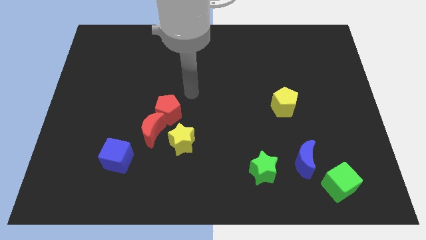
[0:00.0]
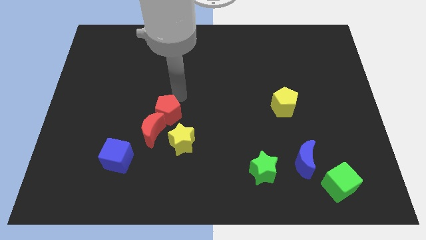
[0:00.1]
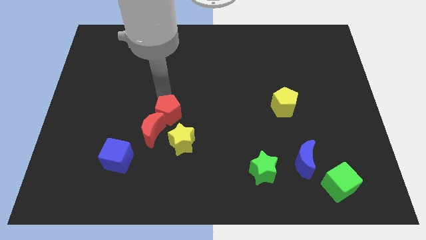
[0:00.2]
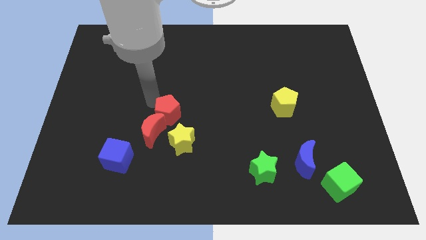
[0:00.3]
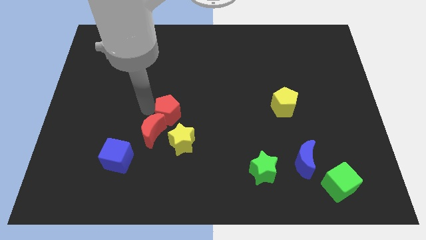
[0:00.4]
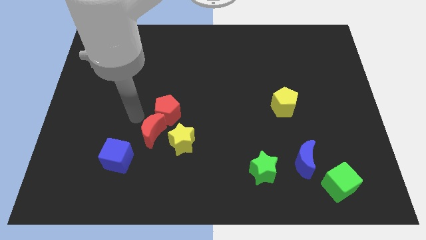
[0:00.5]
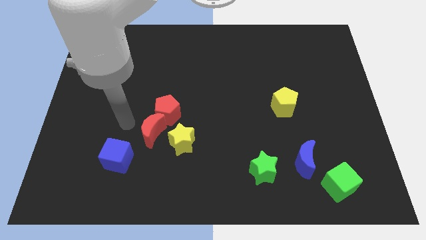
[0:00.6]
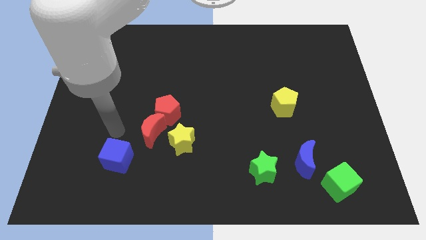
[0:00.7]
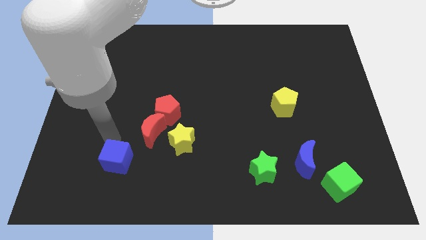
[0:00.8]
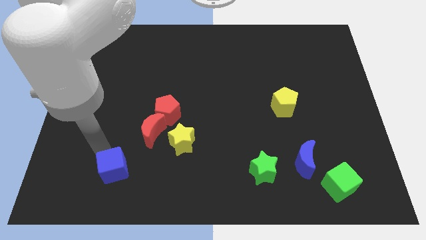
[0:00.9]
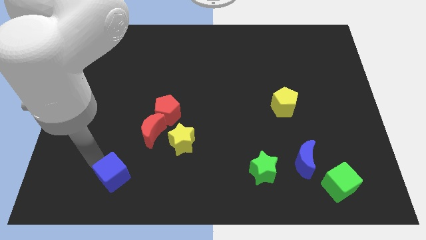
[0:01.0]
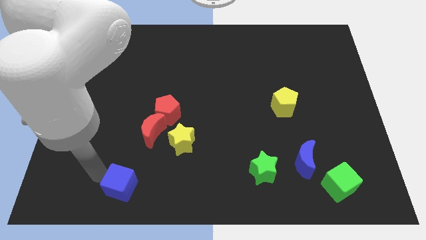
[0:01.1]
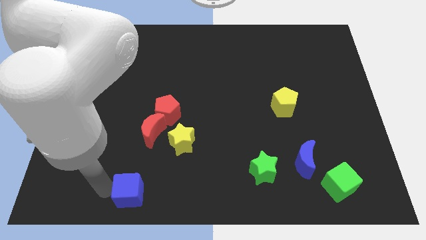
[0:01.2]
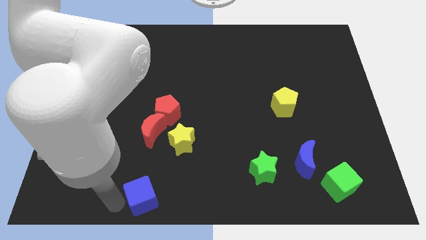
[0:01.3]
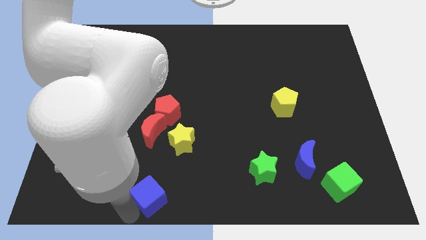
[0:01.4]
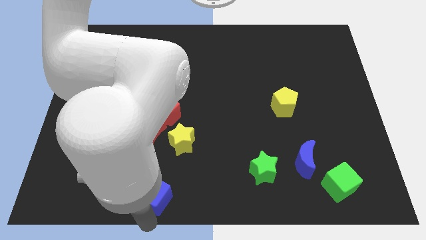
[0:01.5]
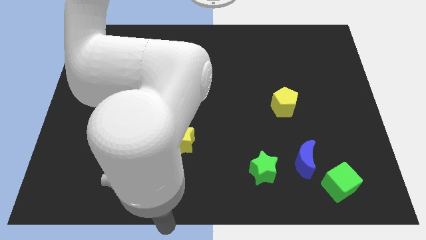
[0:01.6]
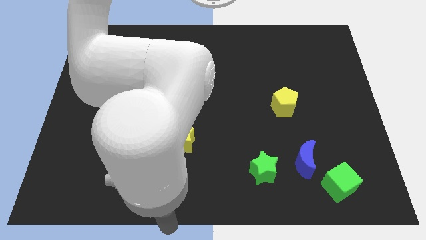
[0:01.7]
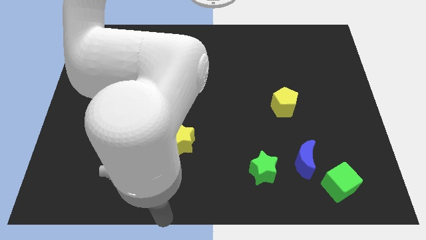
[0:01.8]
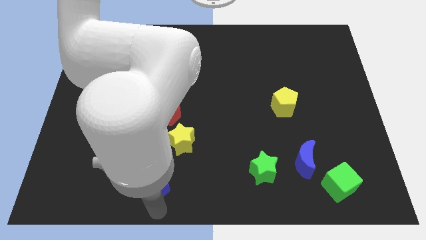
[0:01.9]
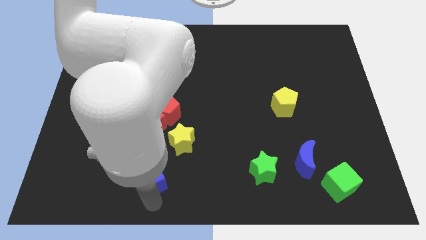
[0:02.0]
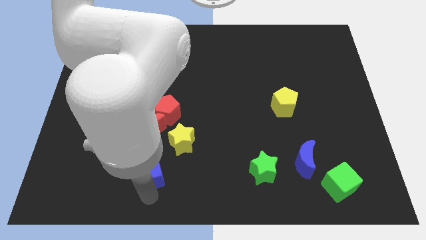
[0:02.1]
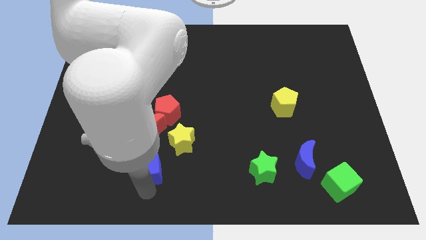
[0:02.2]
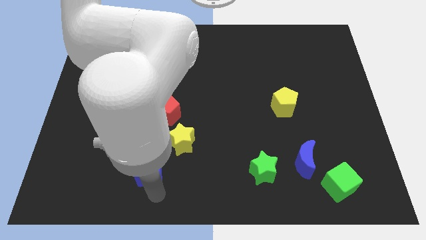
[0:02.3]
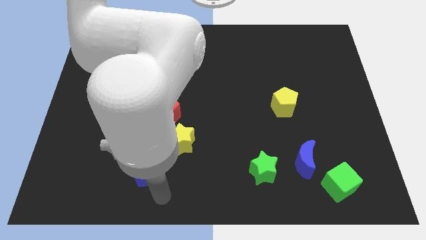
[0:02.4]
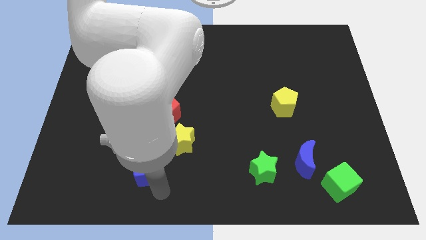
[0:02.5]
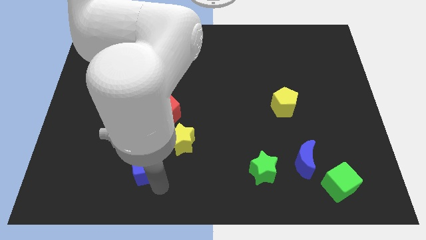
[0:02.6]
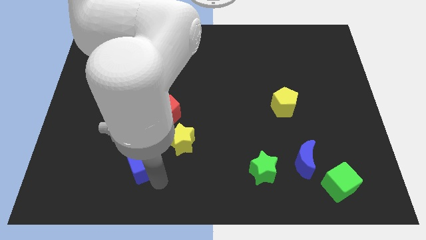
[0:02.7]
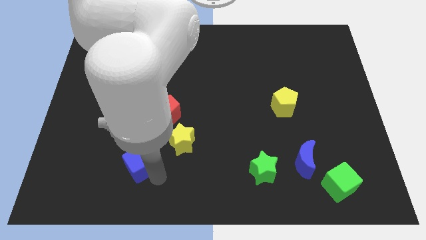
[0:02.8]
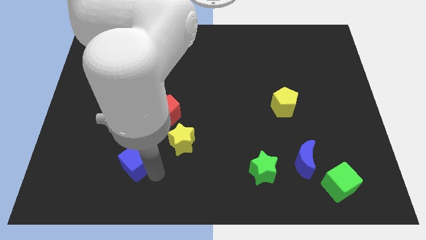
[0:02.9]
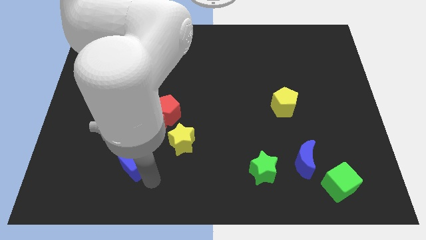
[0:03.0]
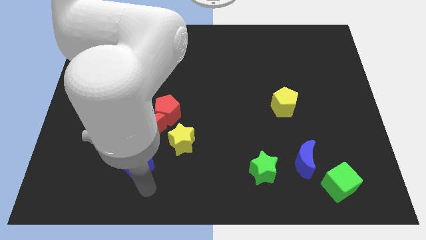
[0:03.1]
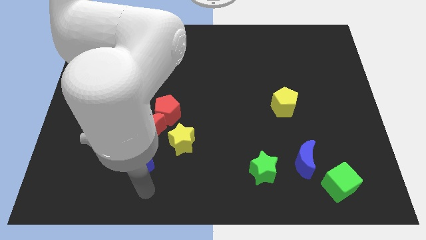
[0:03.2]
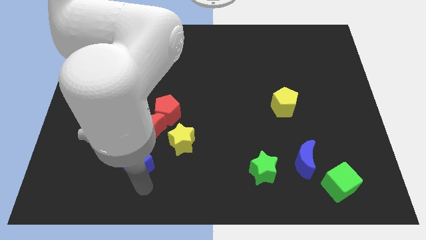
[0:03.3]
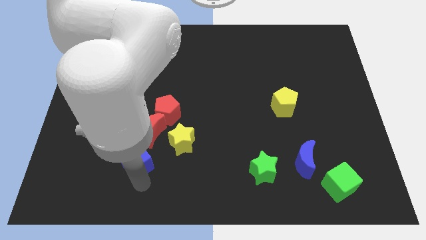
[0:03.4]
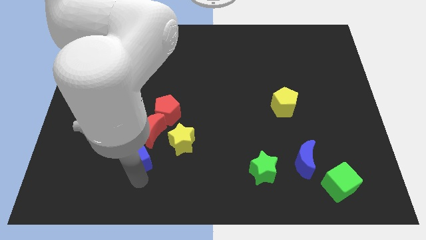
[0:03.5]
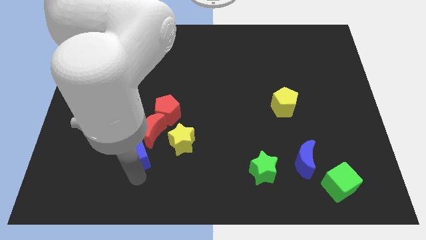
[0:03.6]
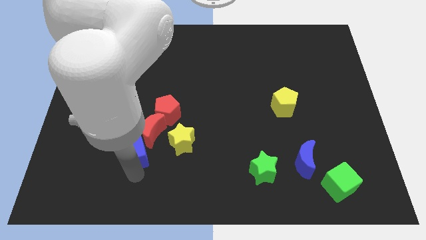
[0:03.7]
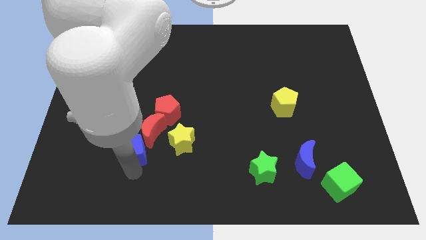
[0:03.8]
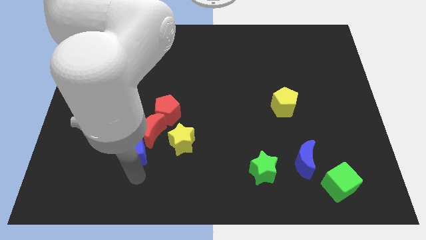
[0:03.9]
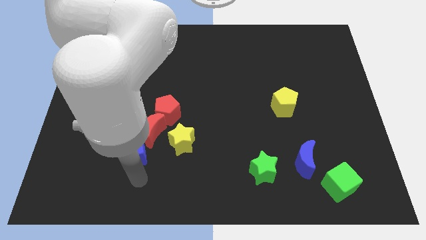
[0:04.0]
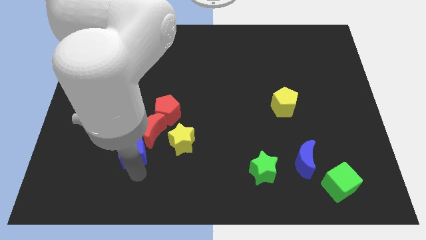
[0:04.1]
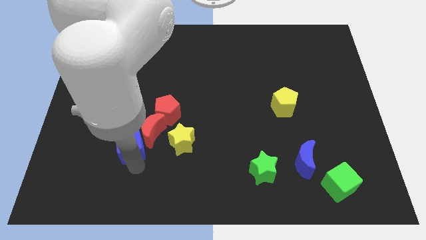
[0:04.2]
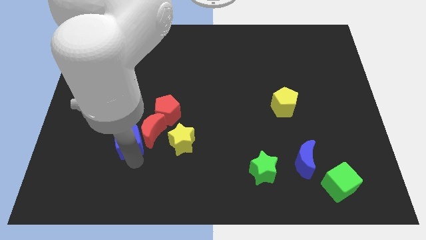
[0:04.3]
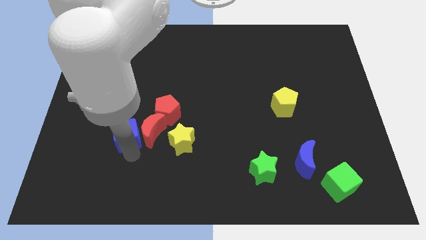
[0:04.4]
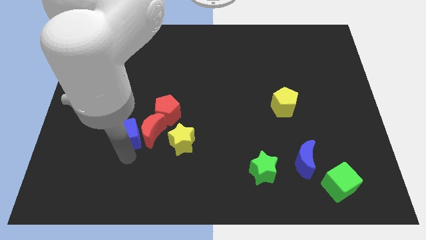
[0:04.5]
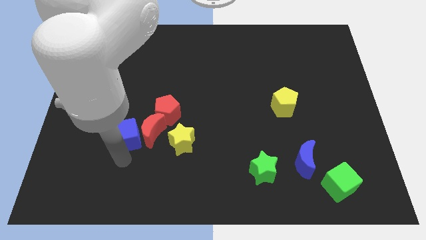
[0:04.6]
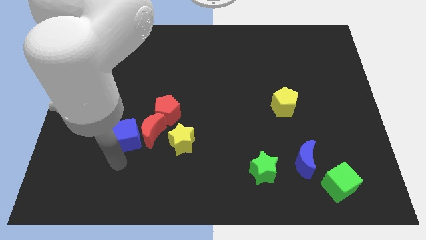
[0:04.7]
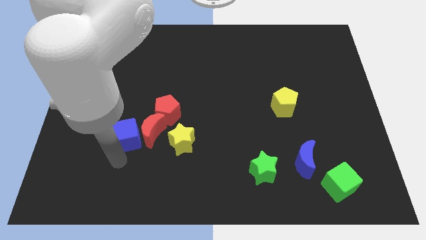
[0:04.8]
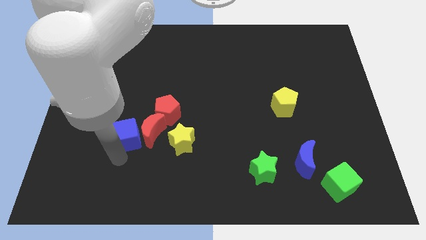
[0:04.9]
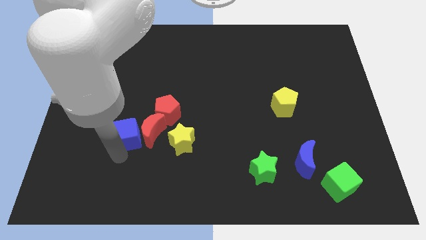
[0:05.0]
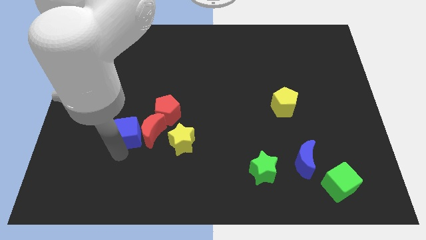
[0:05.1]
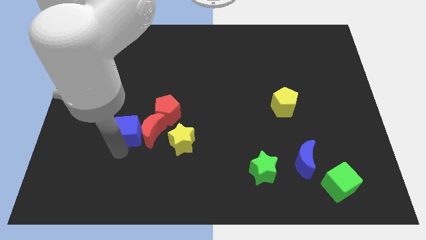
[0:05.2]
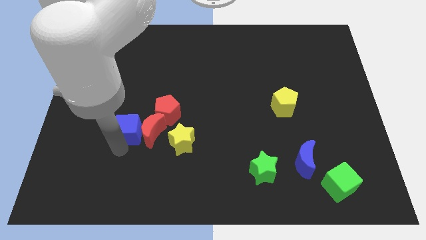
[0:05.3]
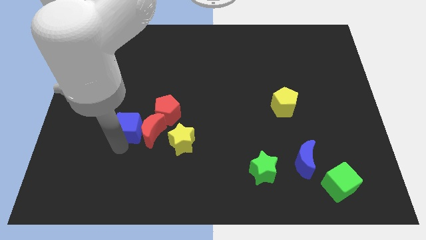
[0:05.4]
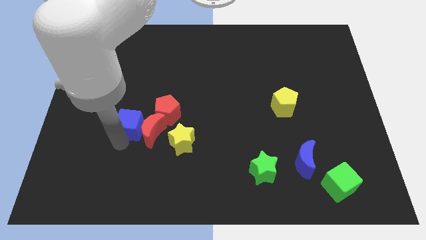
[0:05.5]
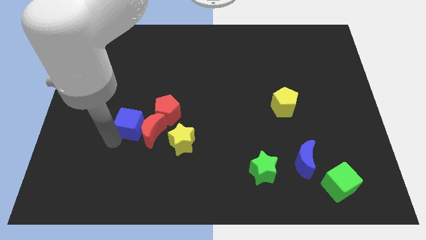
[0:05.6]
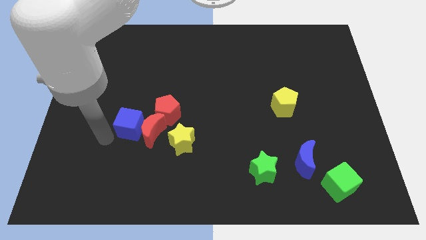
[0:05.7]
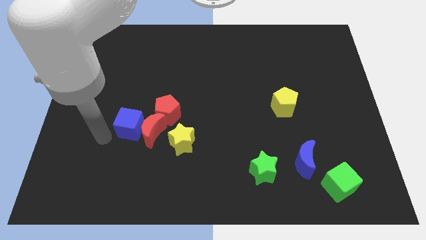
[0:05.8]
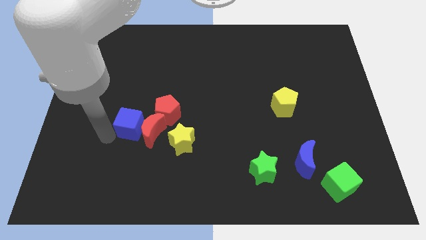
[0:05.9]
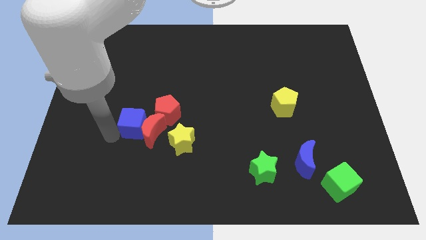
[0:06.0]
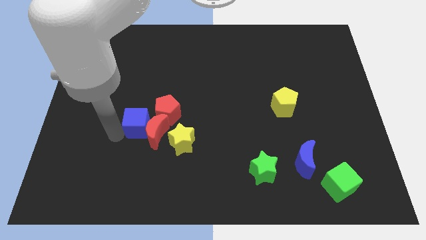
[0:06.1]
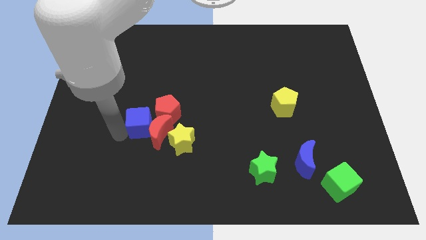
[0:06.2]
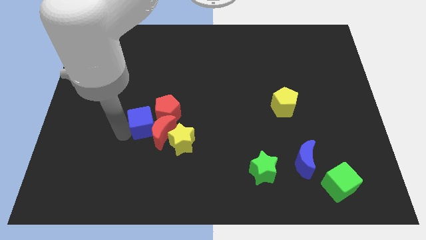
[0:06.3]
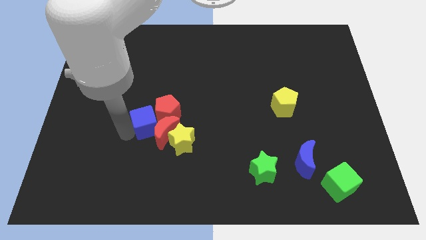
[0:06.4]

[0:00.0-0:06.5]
push the blue cube close to the red pentagon
